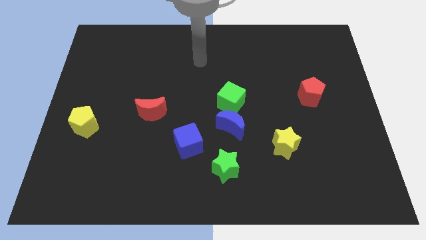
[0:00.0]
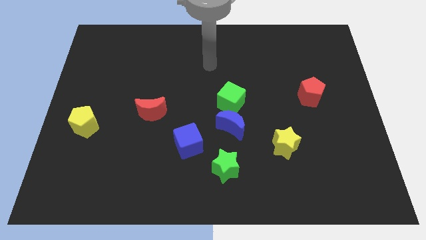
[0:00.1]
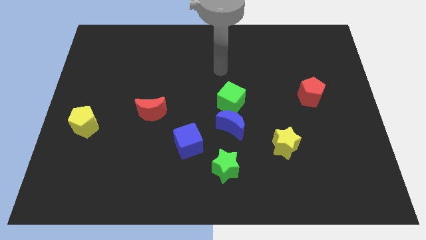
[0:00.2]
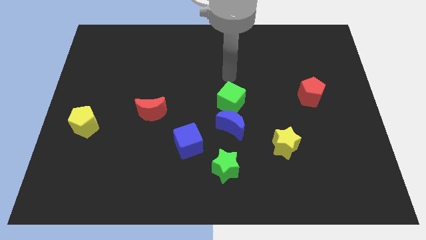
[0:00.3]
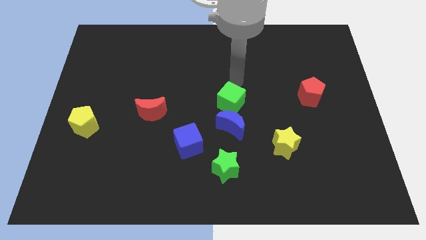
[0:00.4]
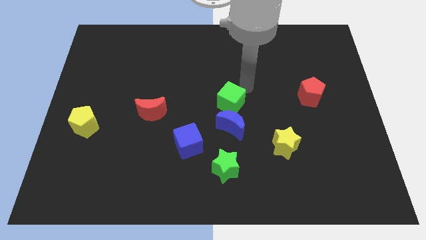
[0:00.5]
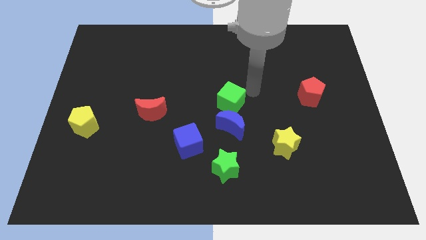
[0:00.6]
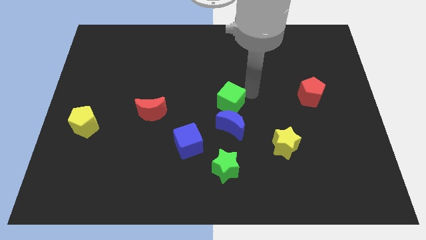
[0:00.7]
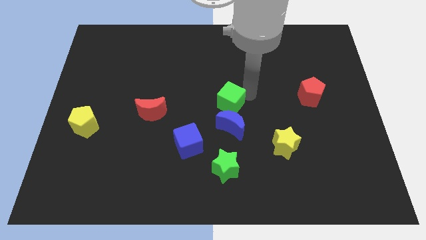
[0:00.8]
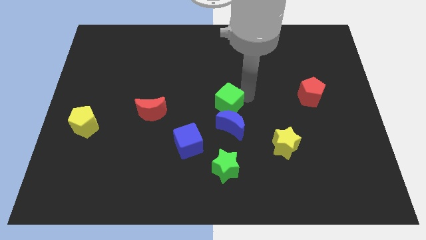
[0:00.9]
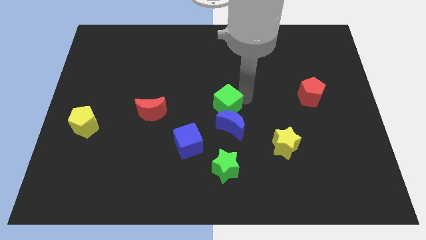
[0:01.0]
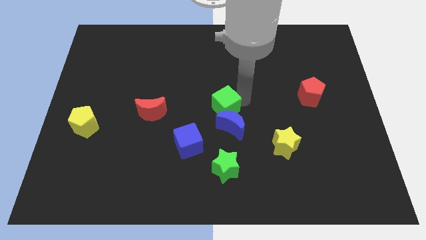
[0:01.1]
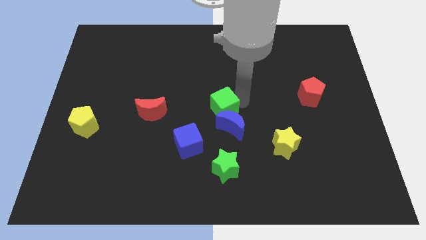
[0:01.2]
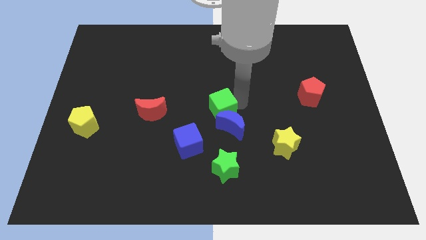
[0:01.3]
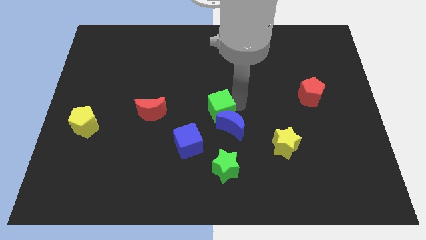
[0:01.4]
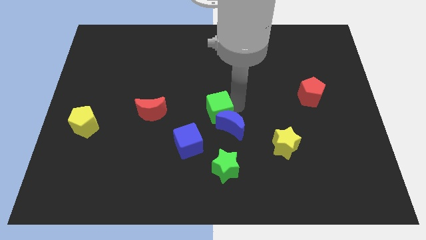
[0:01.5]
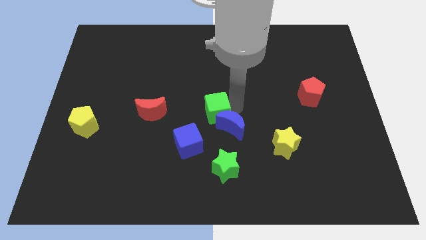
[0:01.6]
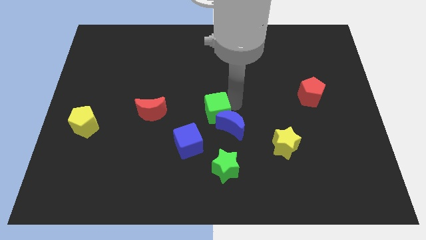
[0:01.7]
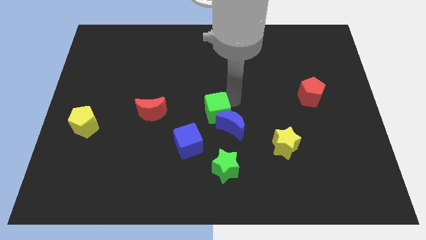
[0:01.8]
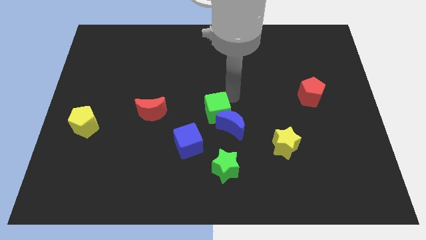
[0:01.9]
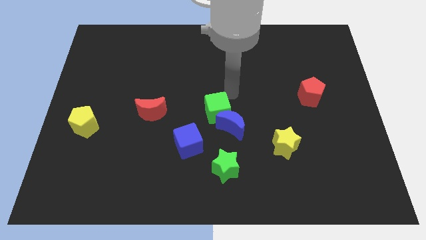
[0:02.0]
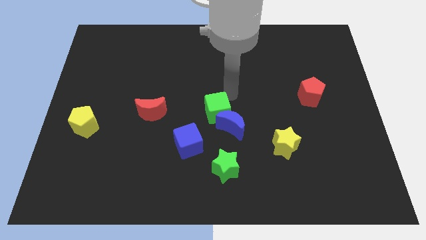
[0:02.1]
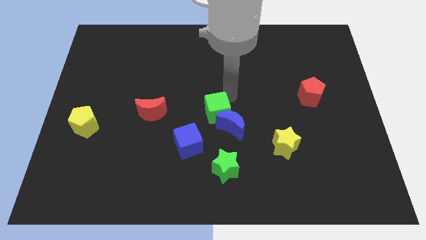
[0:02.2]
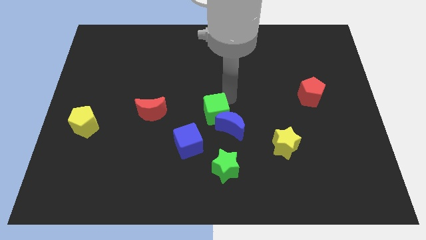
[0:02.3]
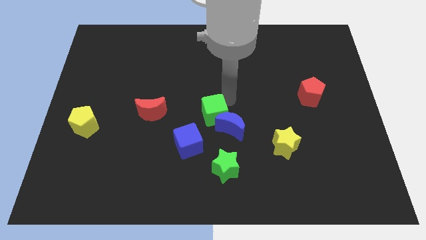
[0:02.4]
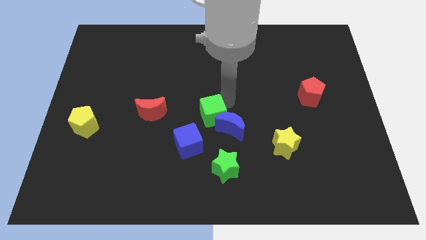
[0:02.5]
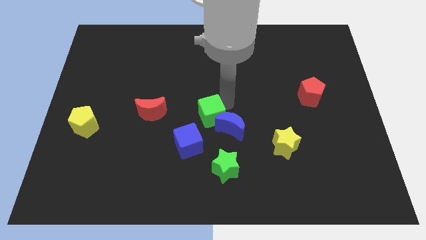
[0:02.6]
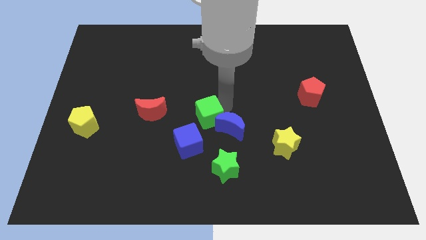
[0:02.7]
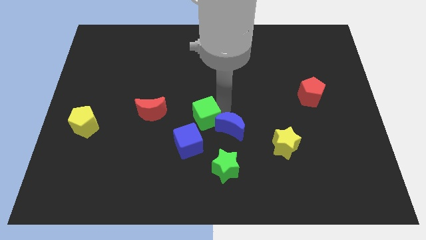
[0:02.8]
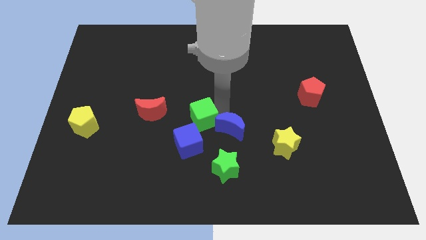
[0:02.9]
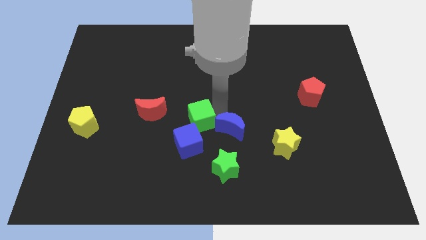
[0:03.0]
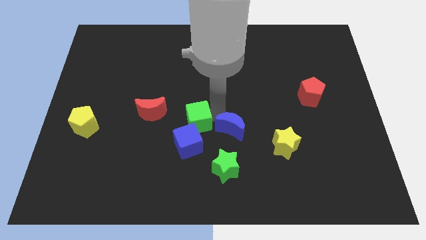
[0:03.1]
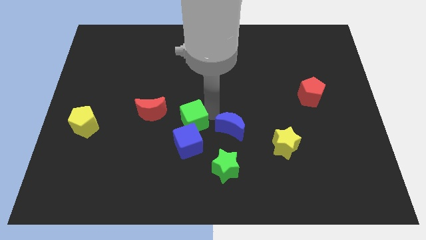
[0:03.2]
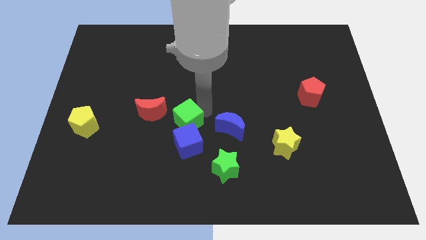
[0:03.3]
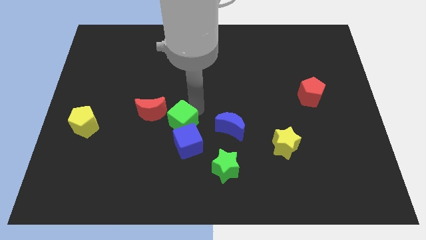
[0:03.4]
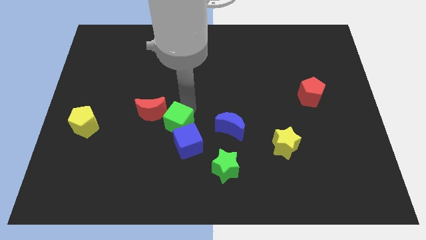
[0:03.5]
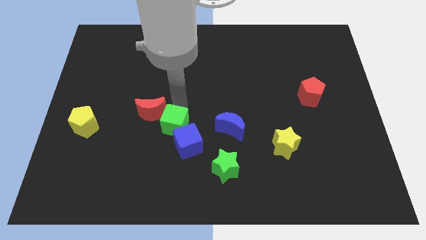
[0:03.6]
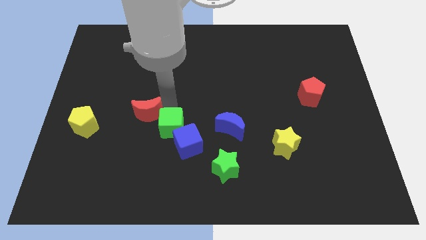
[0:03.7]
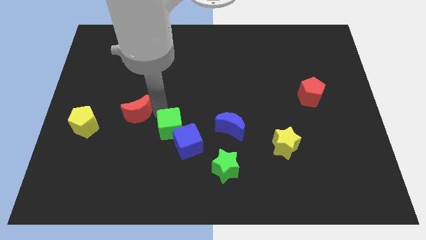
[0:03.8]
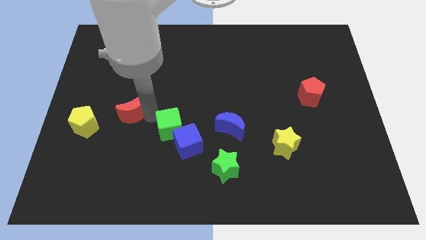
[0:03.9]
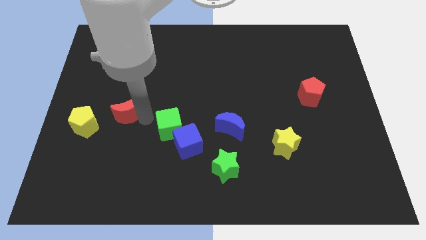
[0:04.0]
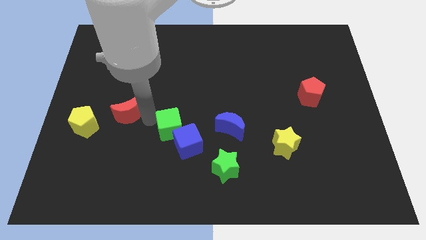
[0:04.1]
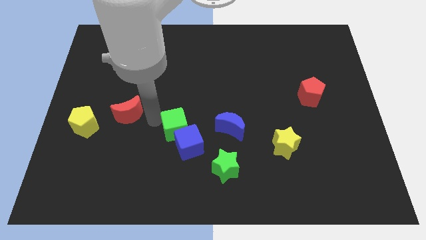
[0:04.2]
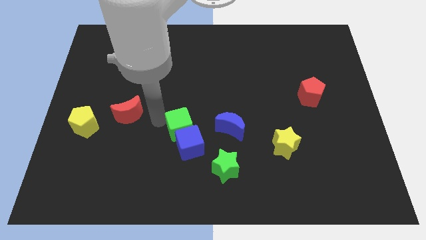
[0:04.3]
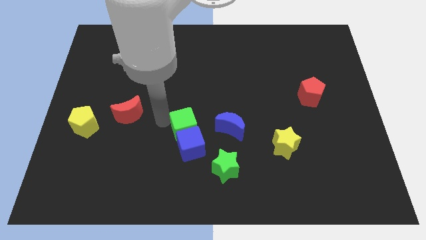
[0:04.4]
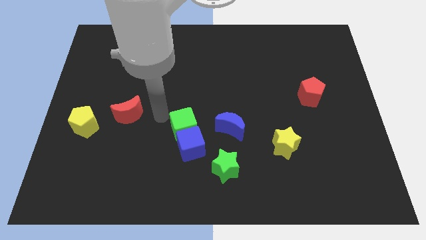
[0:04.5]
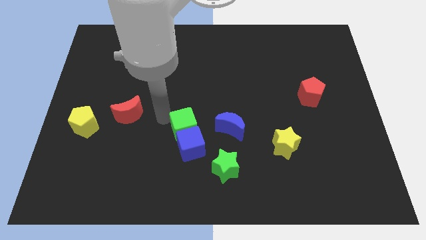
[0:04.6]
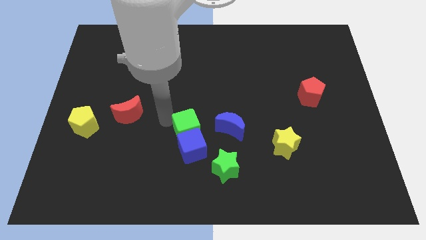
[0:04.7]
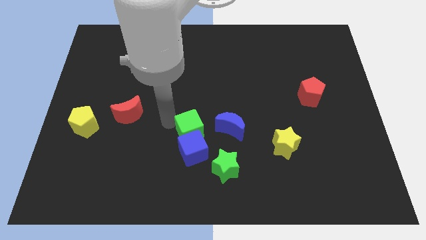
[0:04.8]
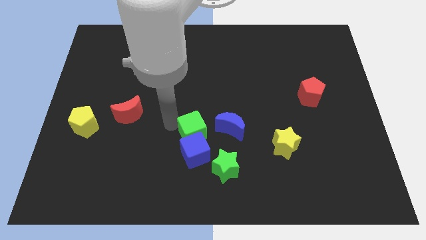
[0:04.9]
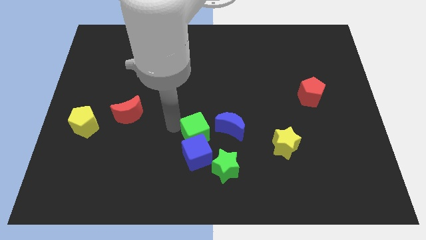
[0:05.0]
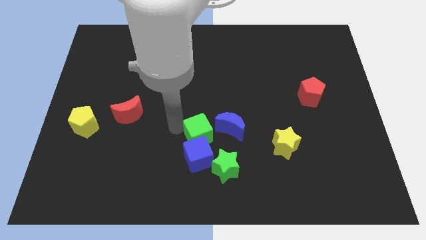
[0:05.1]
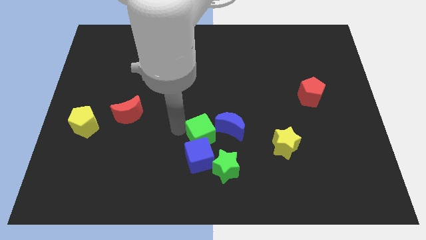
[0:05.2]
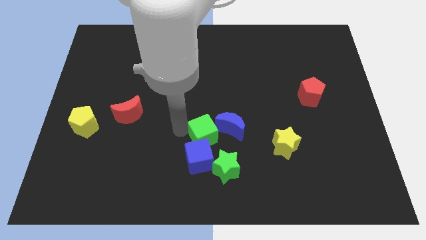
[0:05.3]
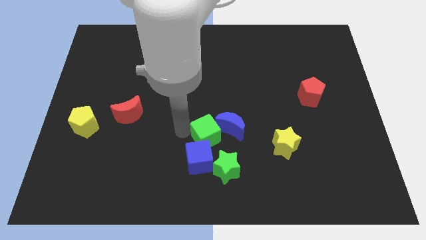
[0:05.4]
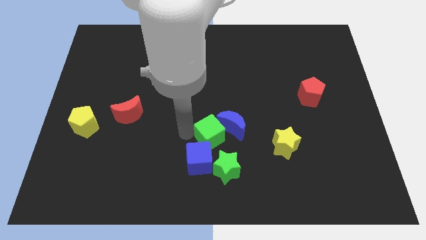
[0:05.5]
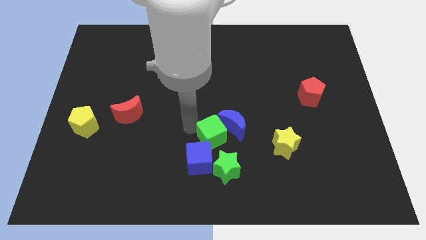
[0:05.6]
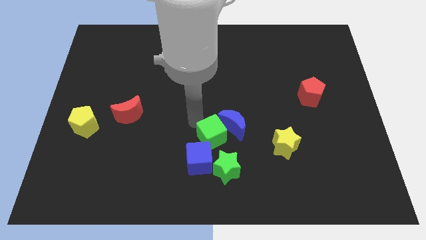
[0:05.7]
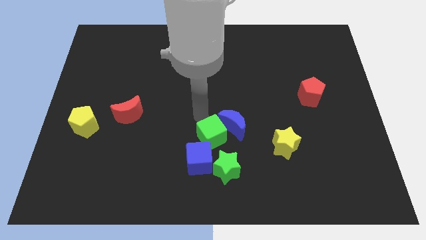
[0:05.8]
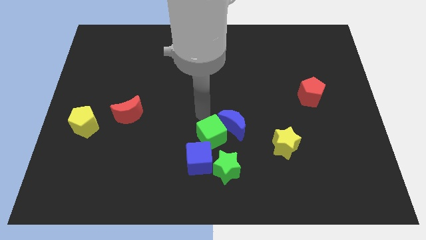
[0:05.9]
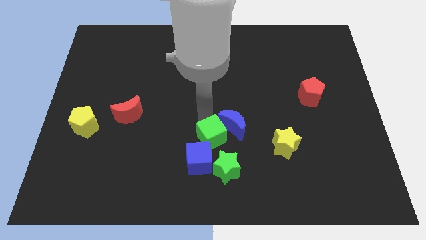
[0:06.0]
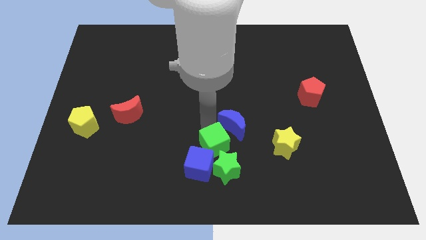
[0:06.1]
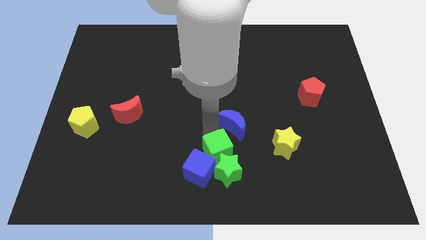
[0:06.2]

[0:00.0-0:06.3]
push the green cube to the green star

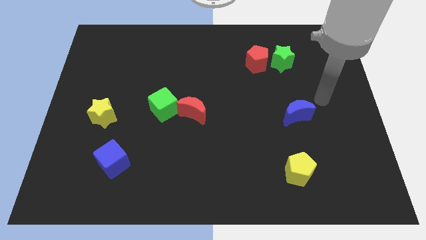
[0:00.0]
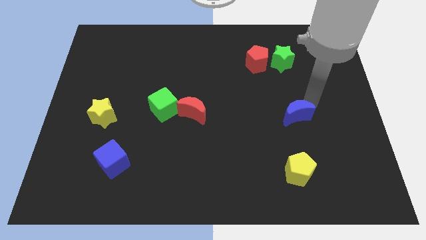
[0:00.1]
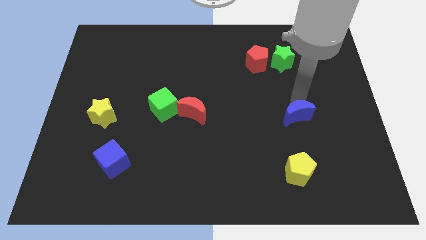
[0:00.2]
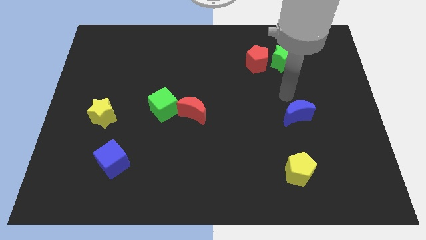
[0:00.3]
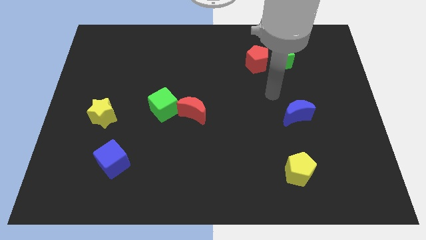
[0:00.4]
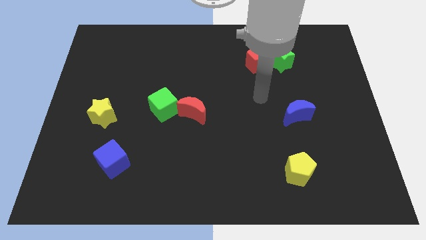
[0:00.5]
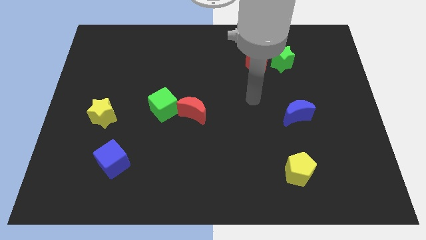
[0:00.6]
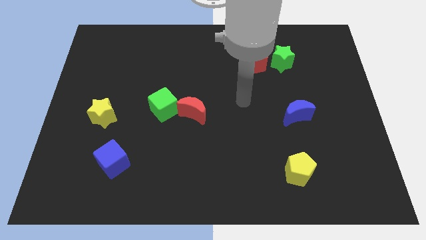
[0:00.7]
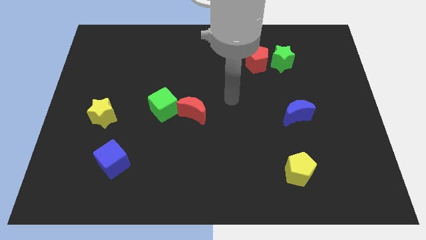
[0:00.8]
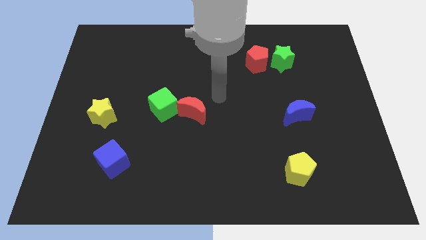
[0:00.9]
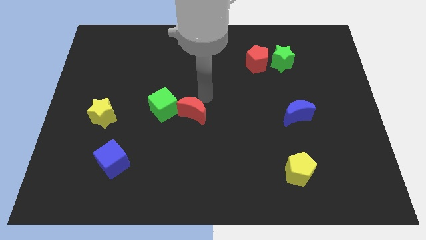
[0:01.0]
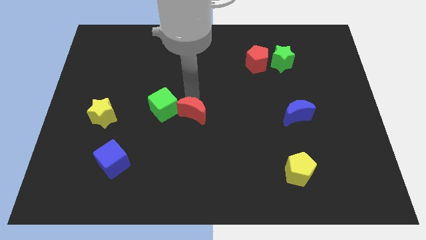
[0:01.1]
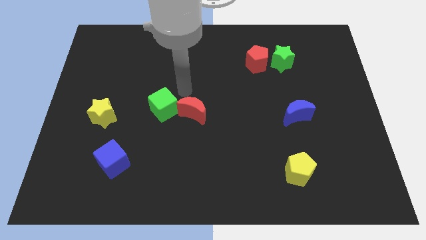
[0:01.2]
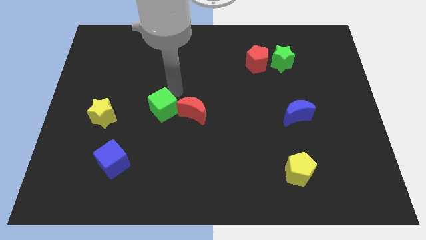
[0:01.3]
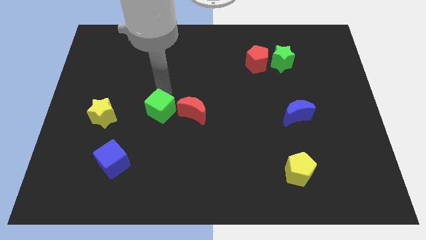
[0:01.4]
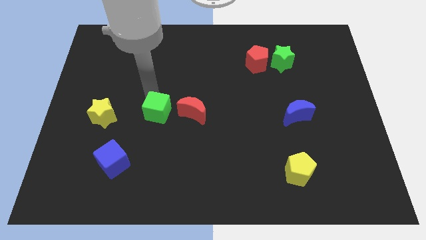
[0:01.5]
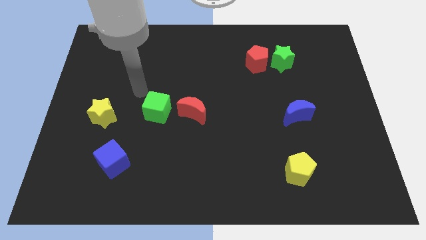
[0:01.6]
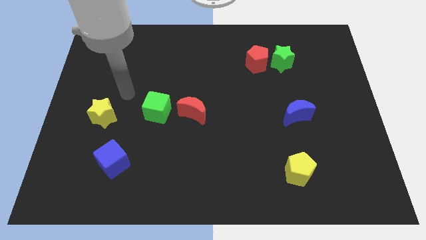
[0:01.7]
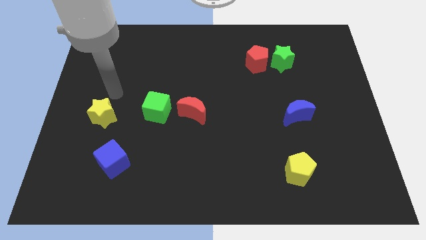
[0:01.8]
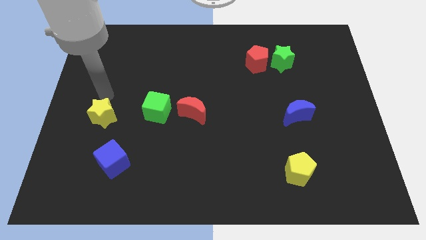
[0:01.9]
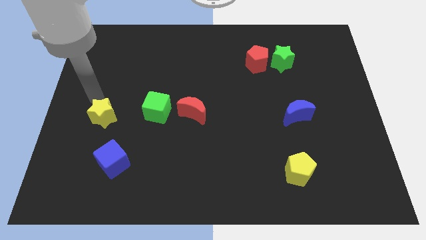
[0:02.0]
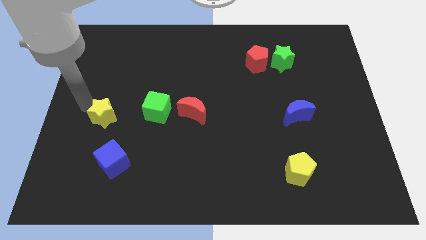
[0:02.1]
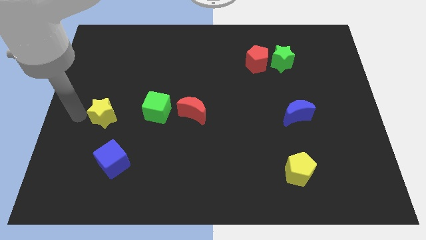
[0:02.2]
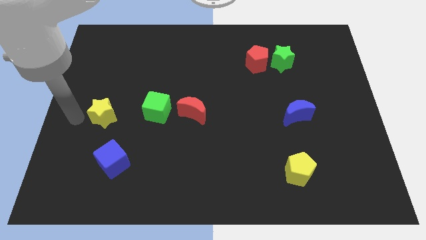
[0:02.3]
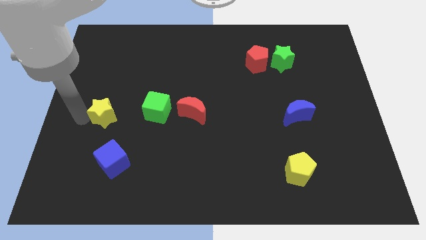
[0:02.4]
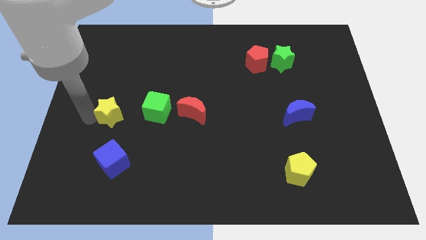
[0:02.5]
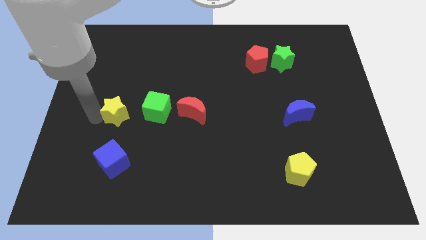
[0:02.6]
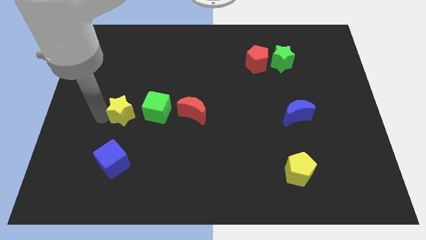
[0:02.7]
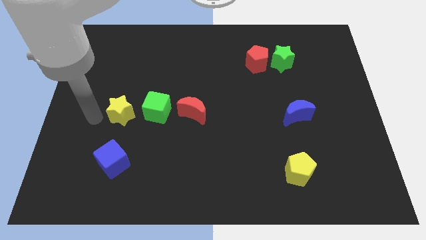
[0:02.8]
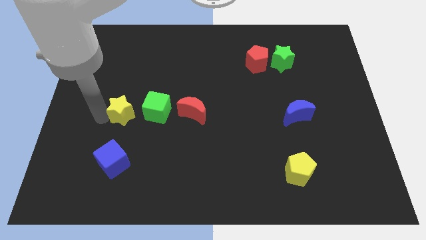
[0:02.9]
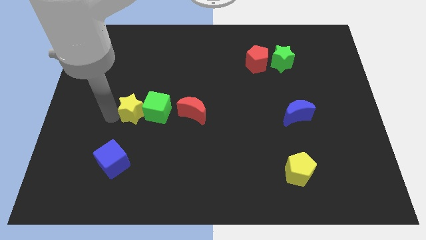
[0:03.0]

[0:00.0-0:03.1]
put the yellow star towards the green cube
